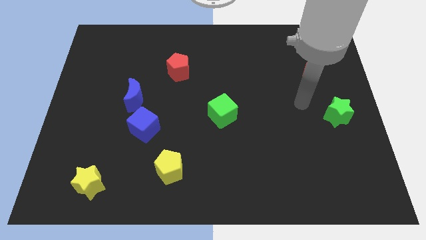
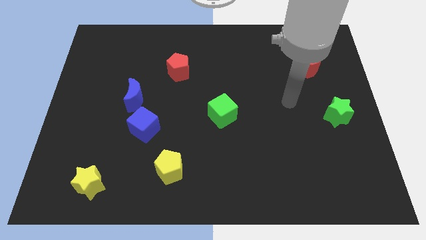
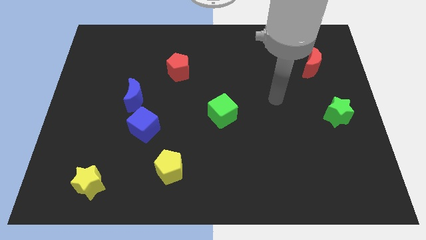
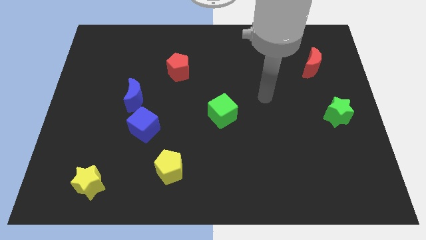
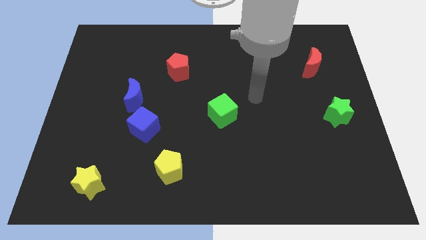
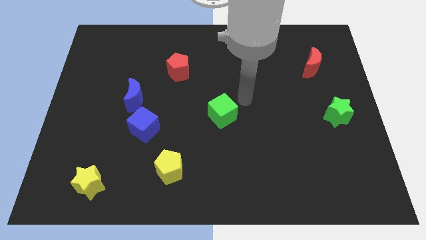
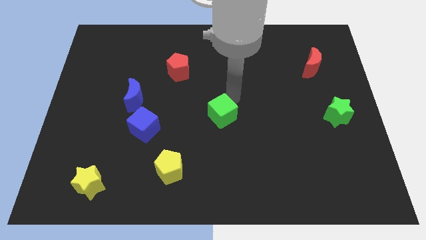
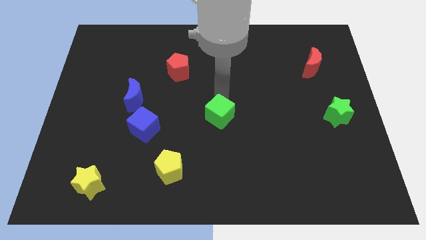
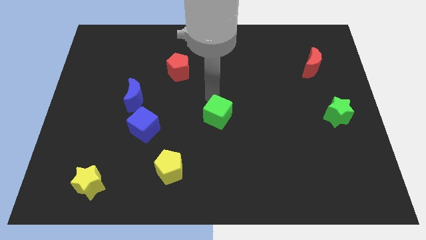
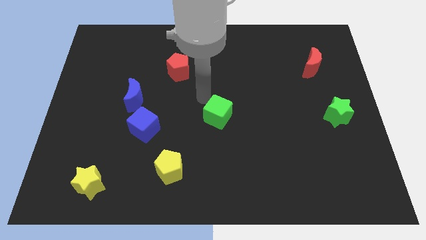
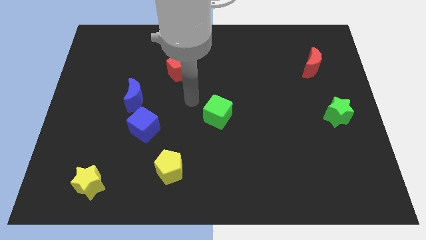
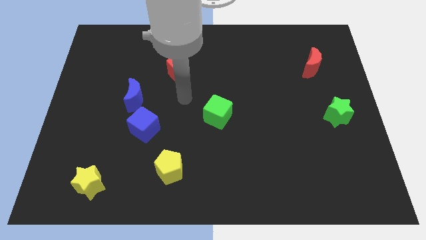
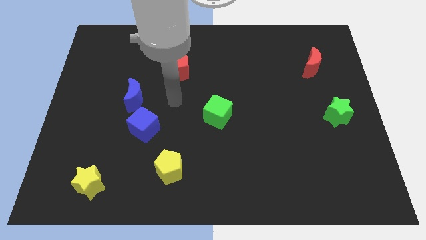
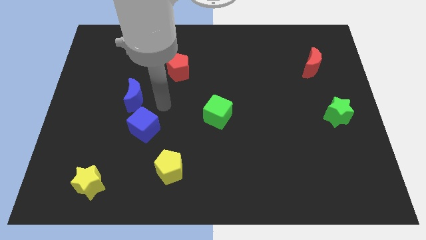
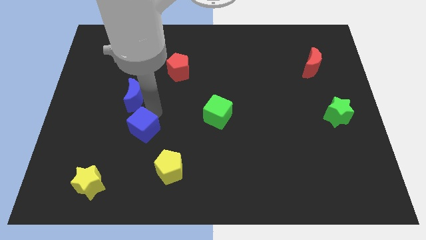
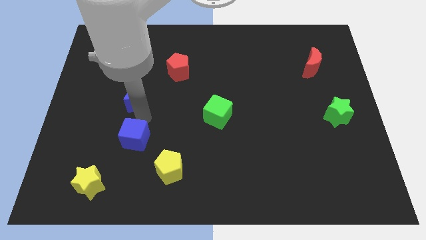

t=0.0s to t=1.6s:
separate the blue moon from the blue cube

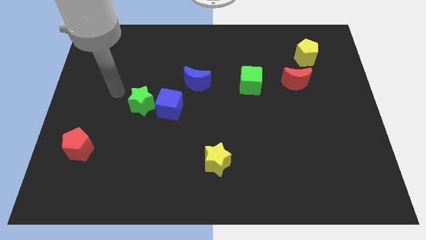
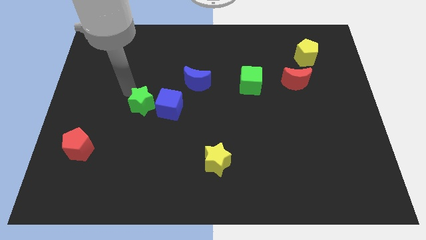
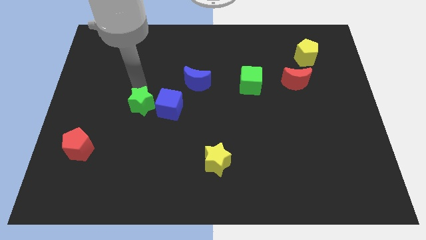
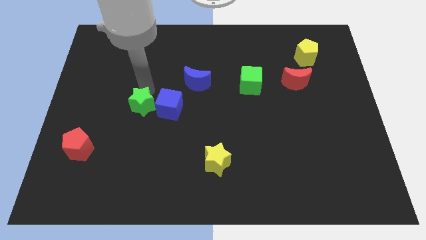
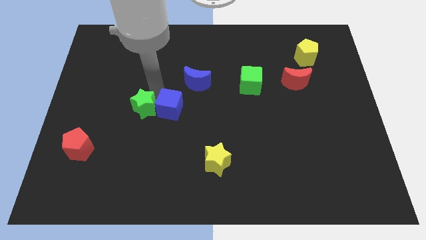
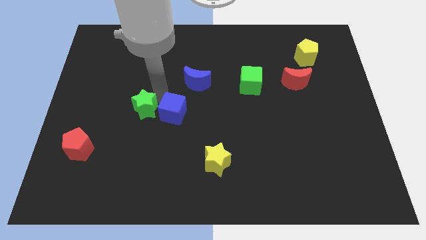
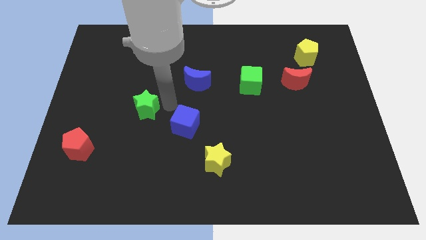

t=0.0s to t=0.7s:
separate the green star from the blue cube

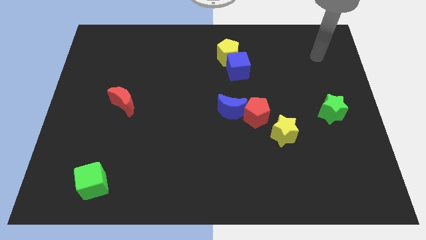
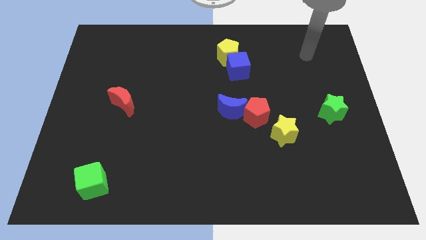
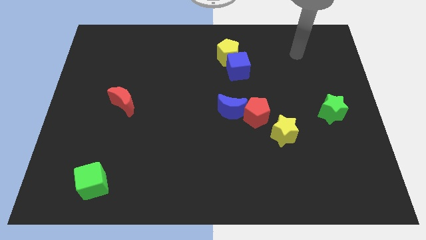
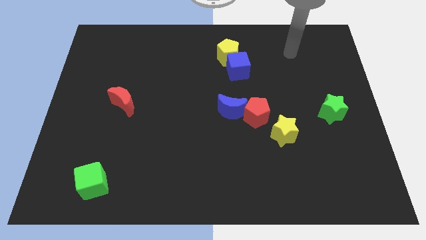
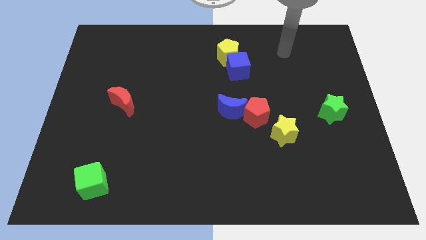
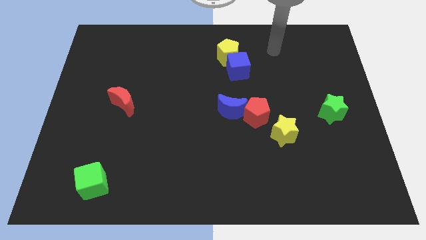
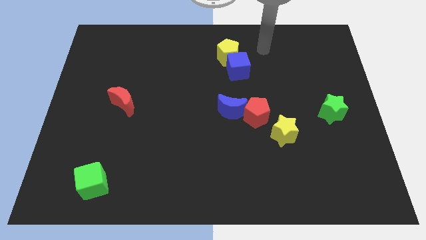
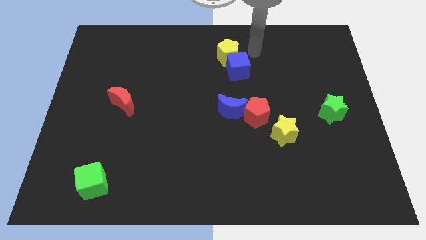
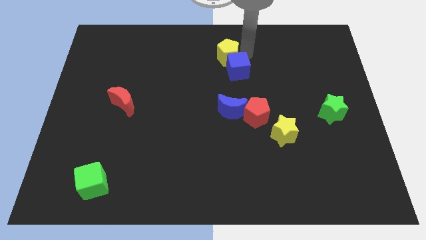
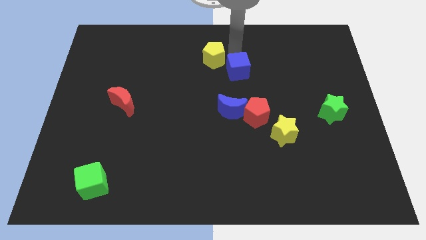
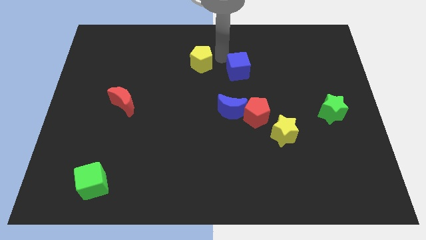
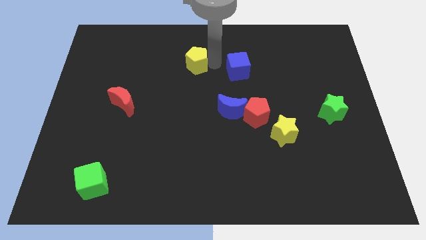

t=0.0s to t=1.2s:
move the blue cube away from the yellow pentagon

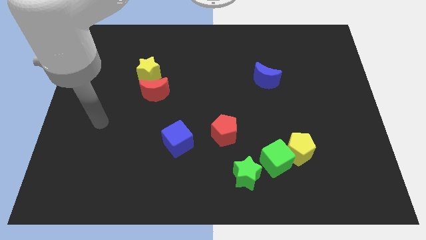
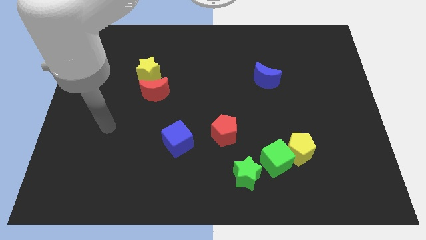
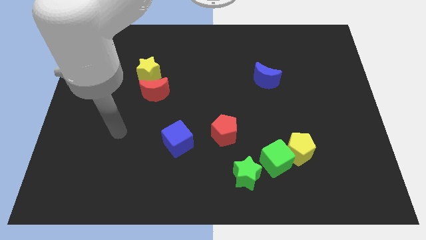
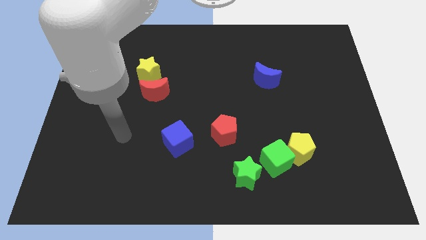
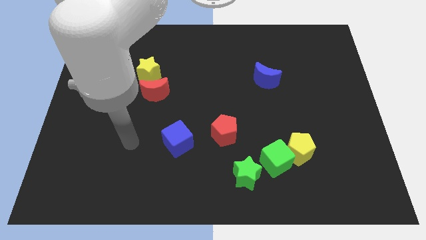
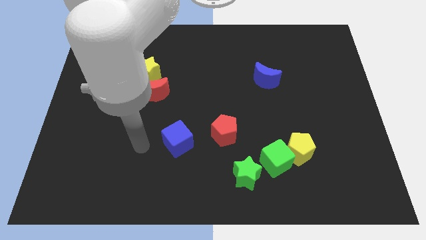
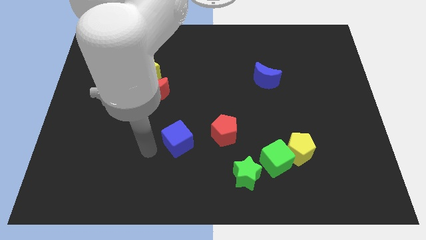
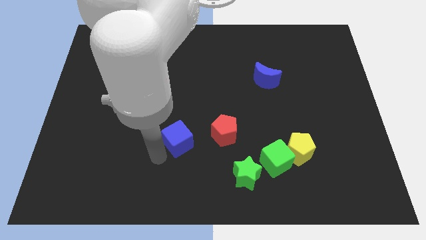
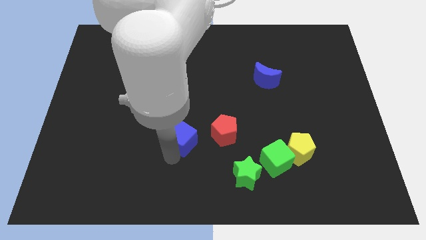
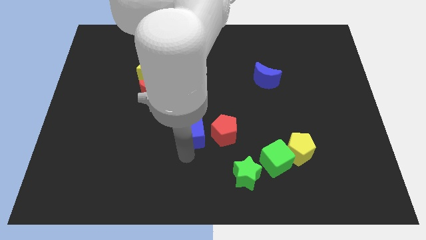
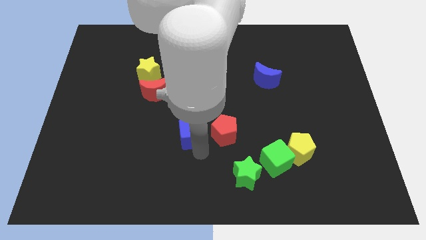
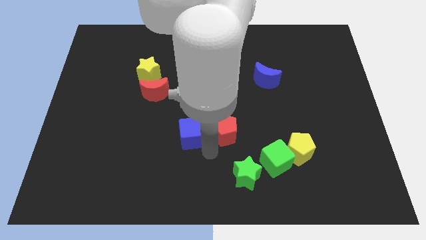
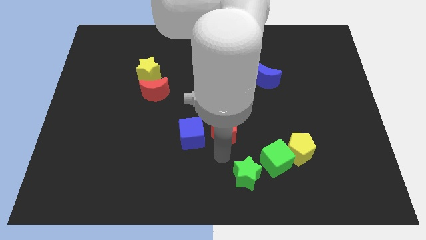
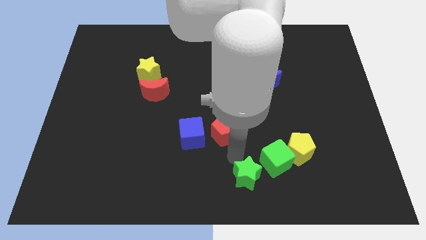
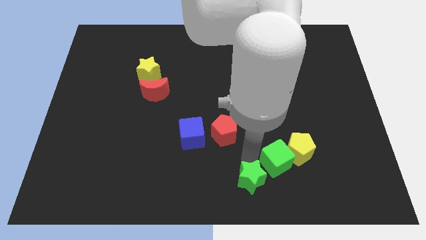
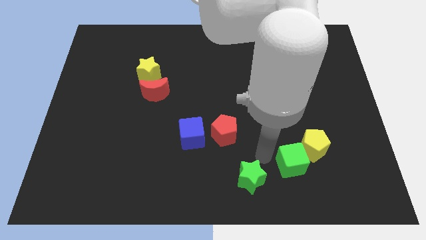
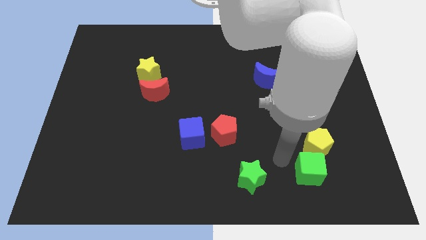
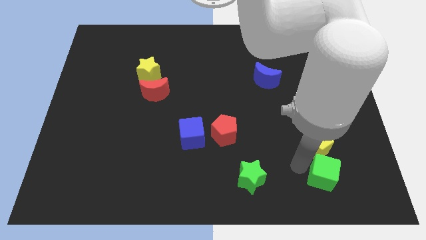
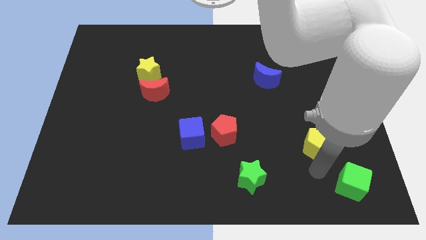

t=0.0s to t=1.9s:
pull the yellow pentagon apart from the green cube

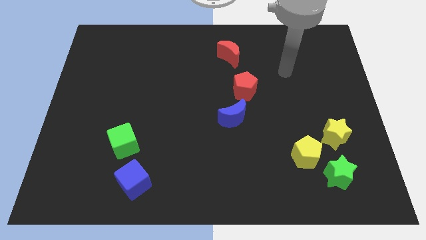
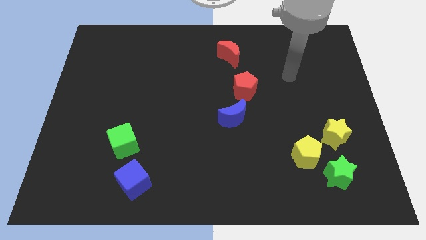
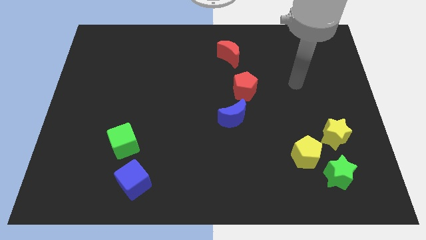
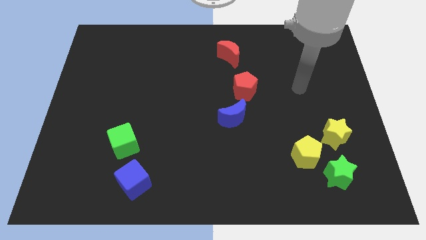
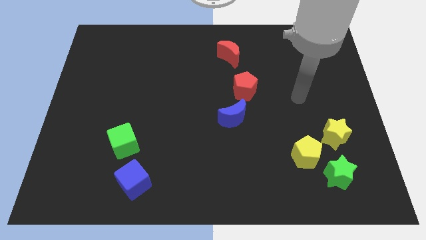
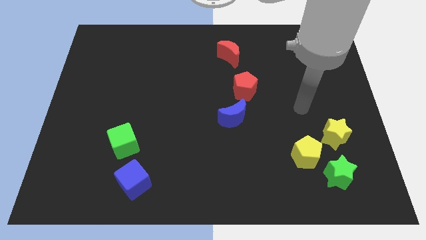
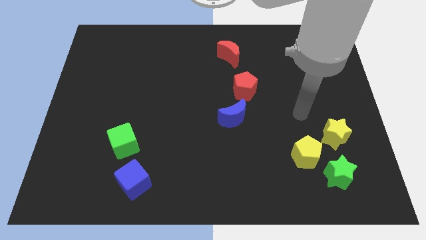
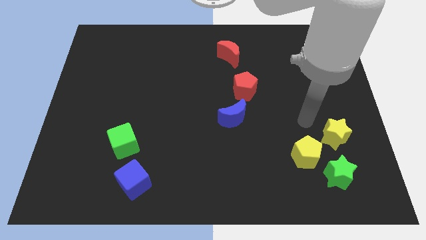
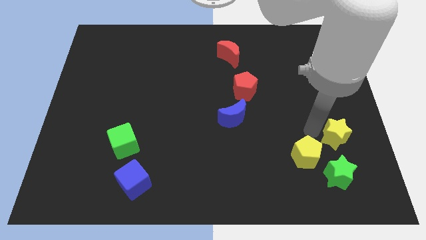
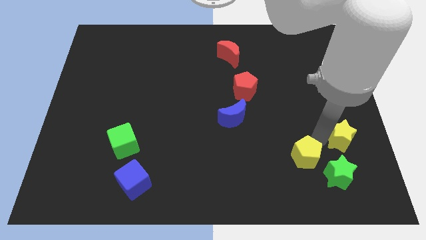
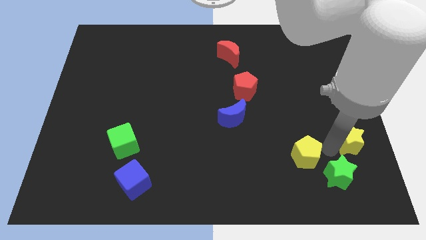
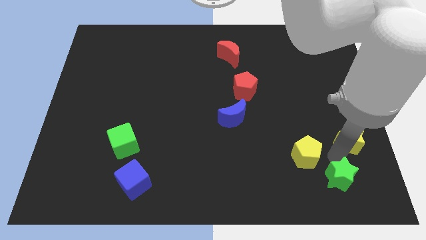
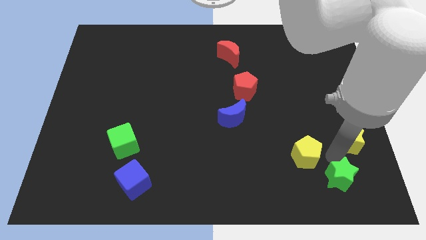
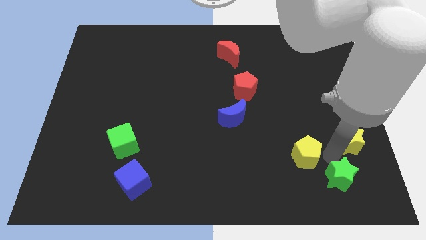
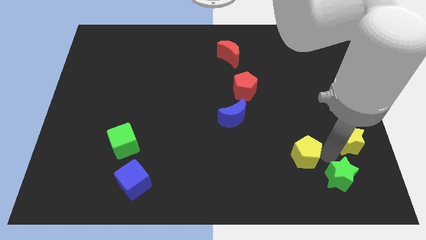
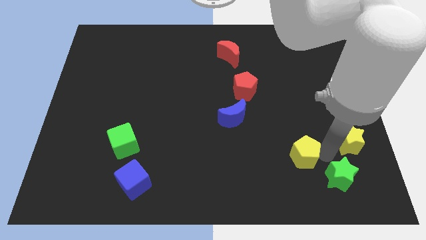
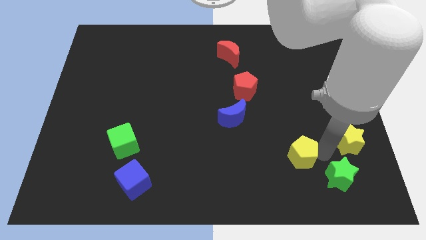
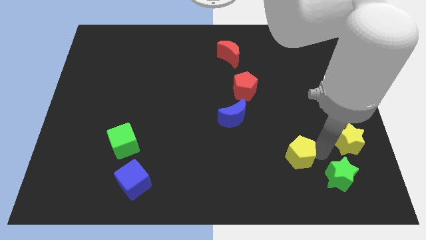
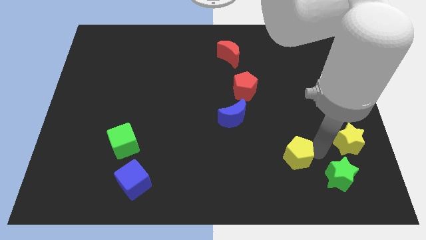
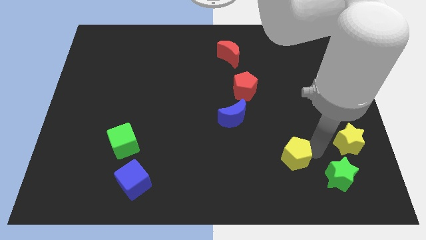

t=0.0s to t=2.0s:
pull the yellow pentagon apart from the green star and yellow star

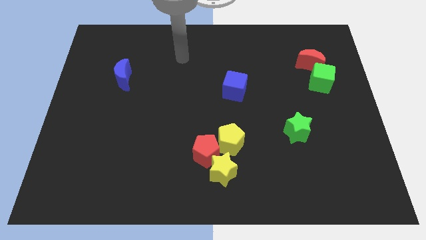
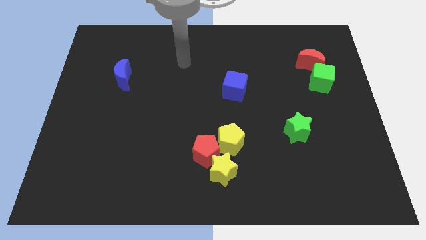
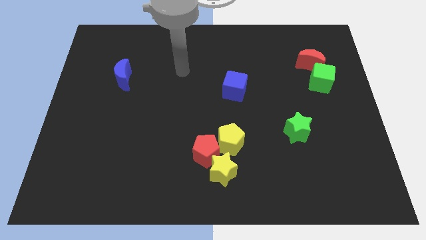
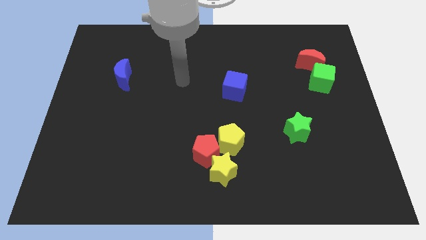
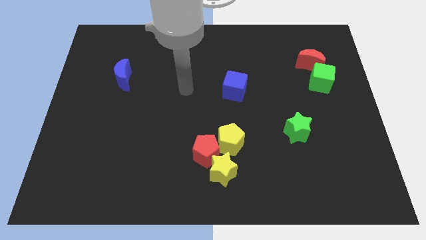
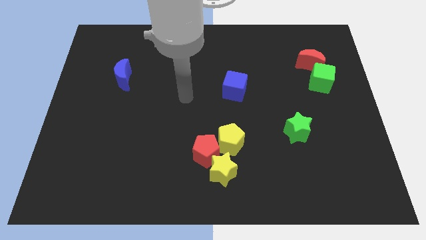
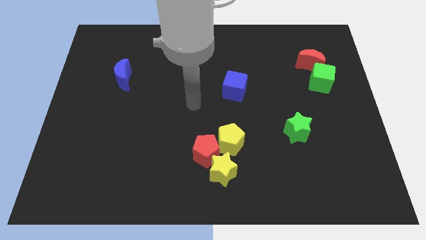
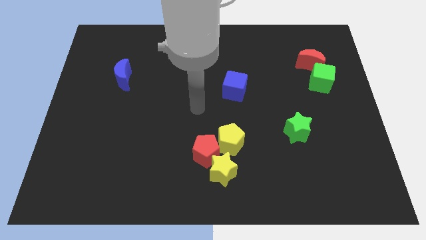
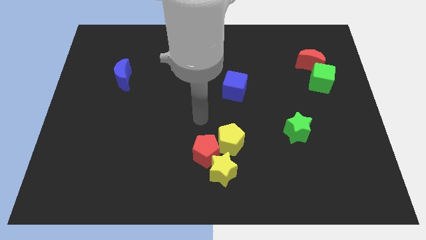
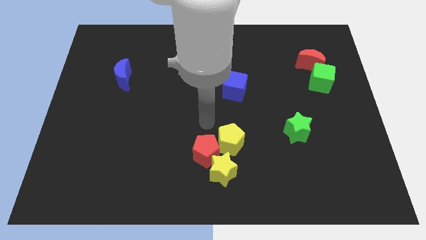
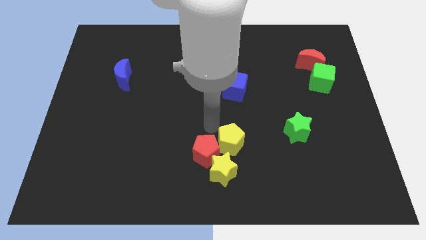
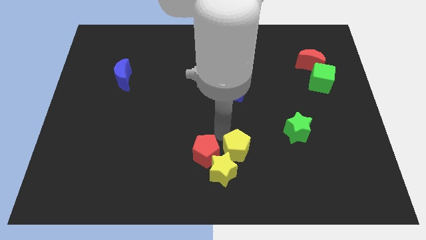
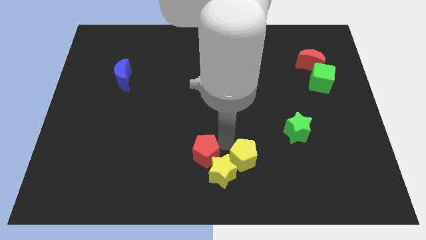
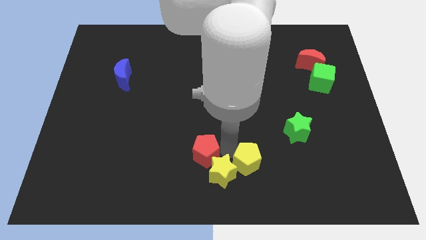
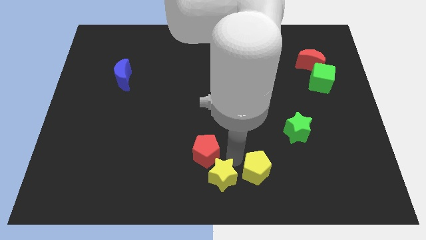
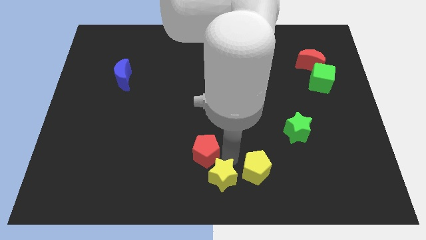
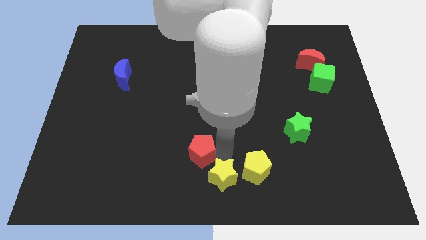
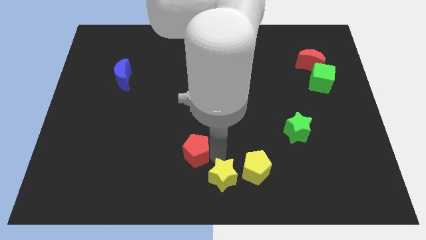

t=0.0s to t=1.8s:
separate the red pentagon from the yellow star and yellow pentagon
